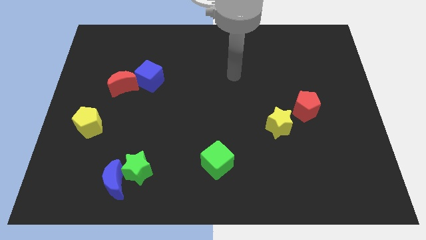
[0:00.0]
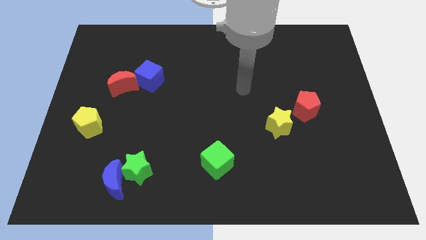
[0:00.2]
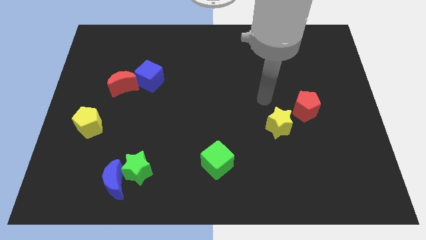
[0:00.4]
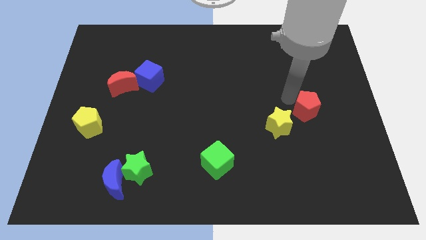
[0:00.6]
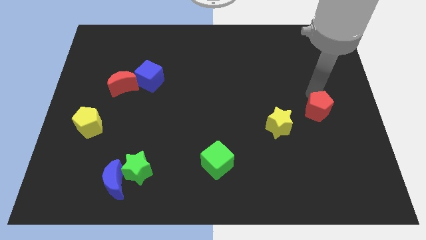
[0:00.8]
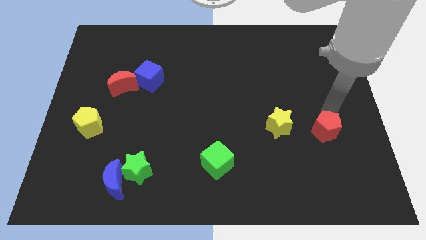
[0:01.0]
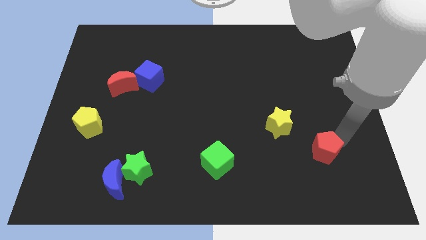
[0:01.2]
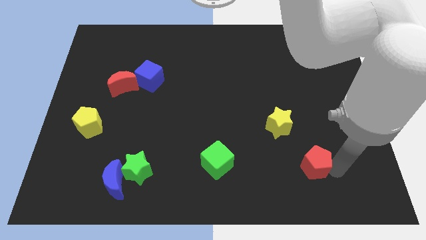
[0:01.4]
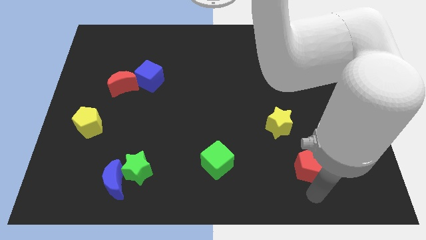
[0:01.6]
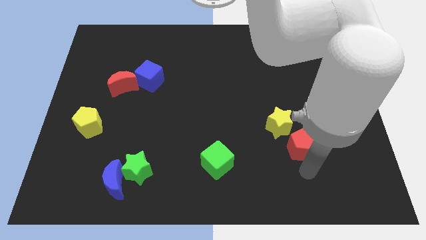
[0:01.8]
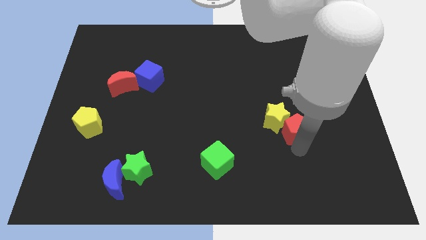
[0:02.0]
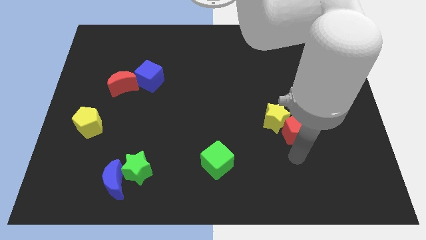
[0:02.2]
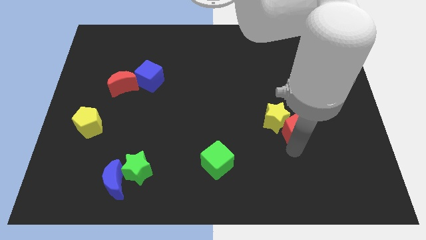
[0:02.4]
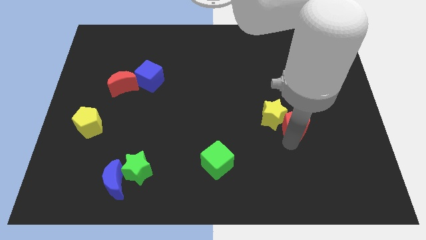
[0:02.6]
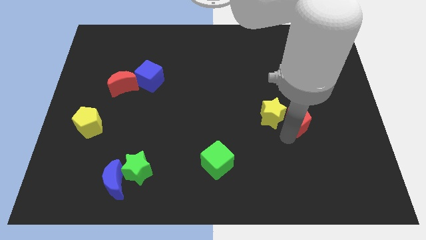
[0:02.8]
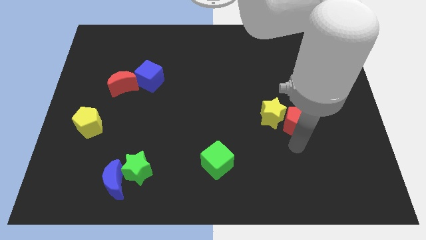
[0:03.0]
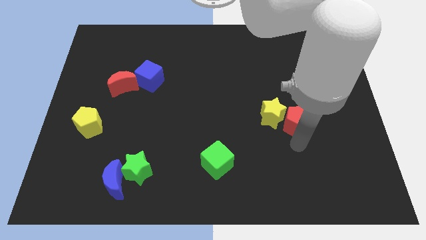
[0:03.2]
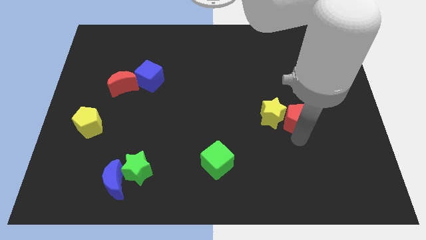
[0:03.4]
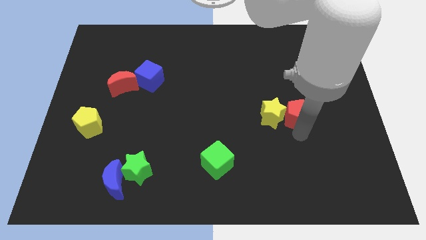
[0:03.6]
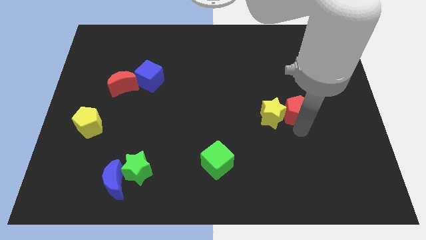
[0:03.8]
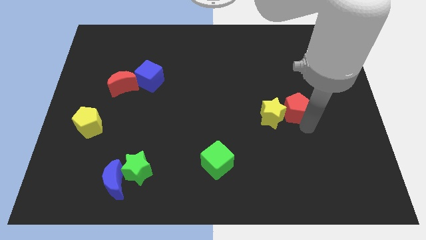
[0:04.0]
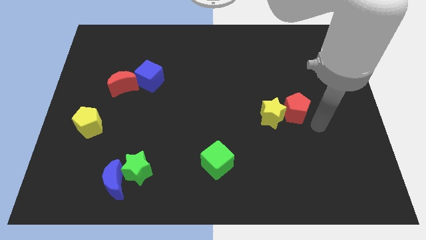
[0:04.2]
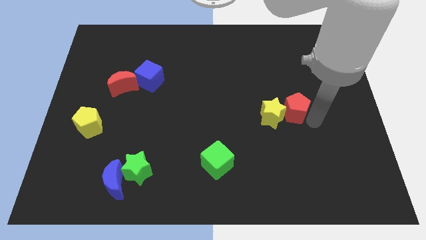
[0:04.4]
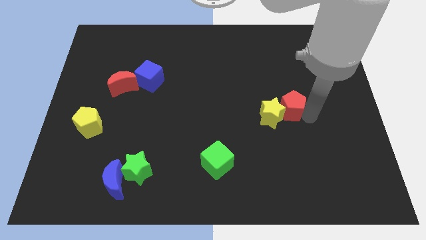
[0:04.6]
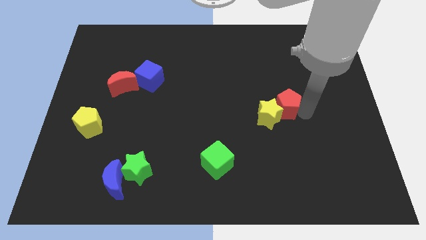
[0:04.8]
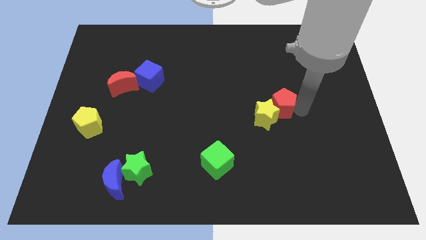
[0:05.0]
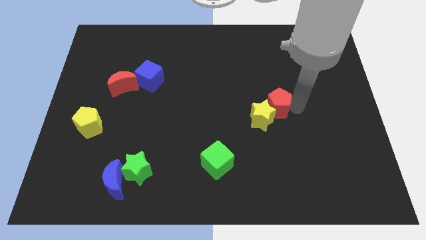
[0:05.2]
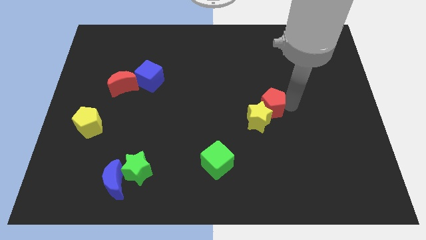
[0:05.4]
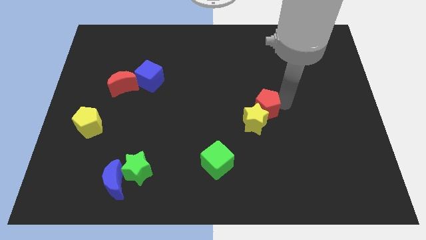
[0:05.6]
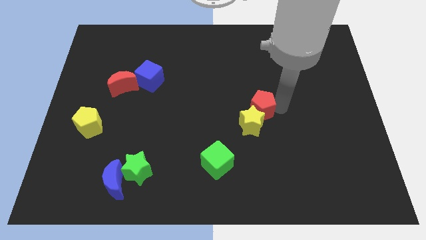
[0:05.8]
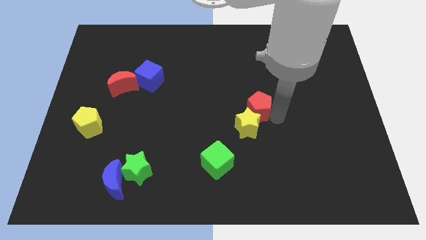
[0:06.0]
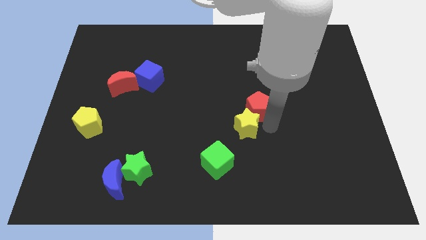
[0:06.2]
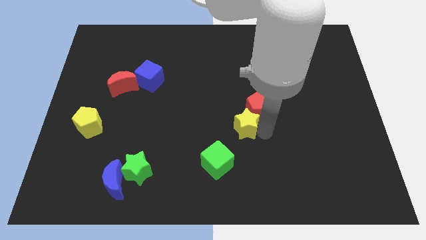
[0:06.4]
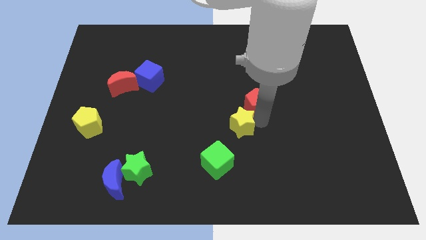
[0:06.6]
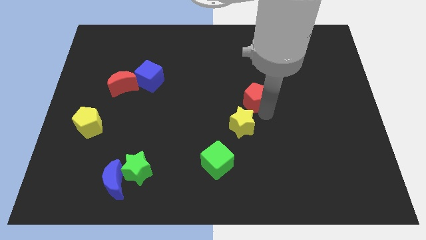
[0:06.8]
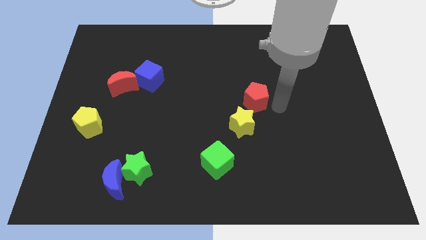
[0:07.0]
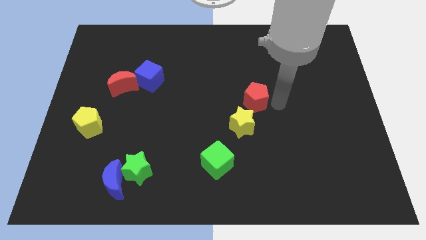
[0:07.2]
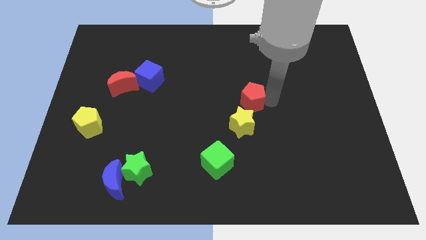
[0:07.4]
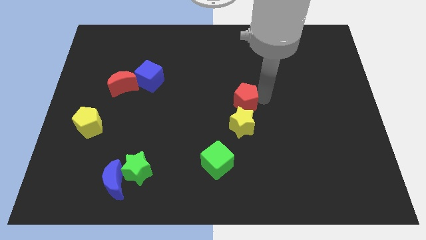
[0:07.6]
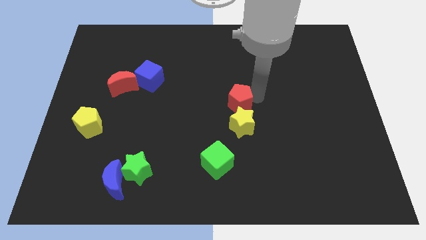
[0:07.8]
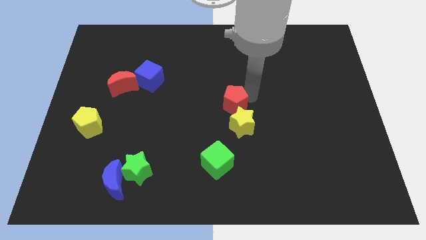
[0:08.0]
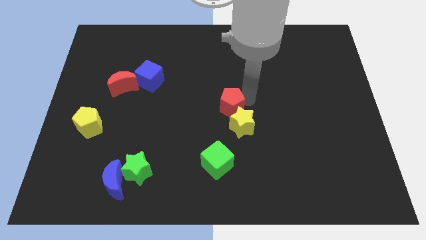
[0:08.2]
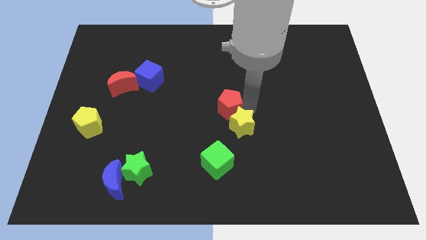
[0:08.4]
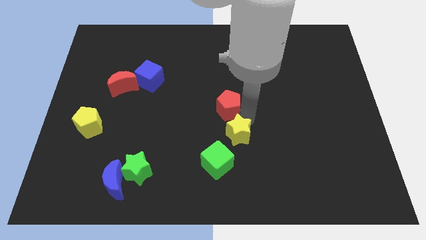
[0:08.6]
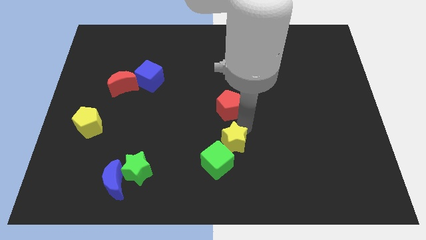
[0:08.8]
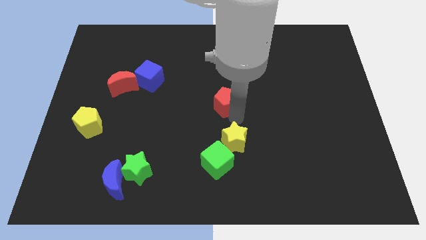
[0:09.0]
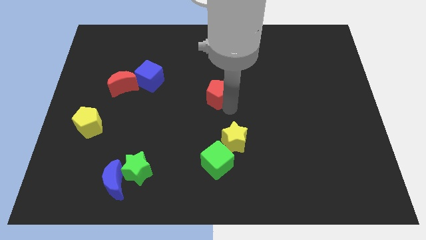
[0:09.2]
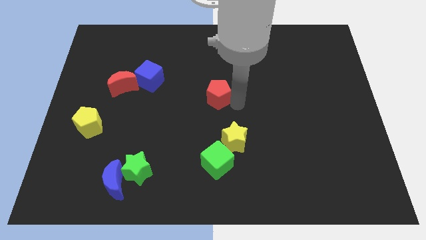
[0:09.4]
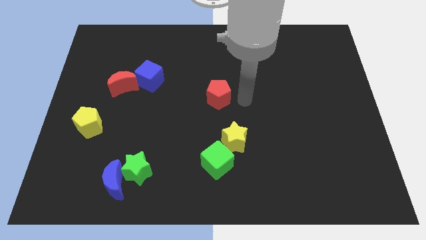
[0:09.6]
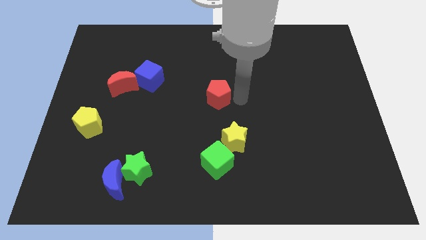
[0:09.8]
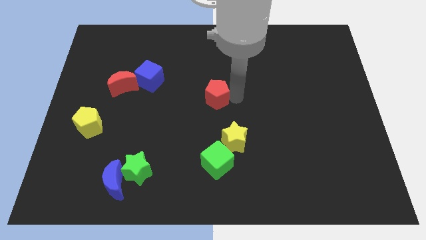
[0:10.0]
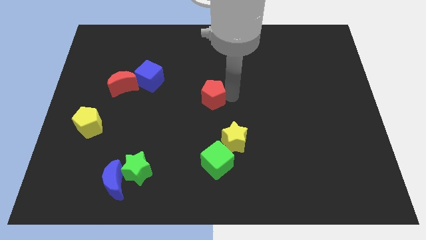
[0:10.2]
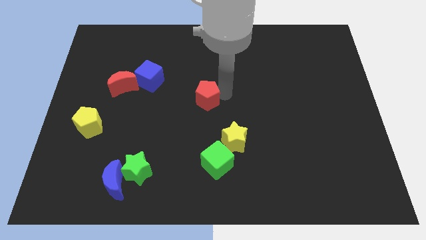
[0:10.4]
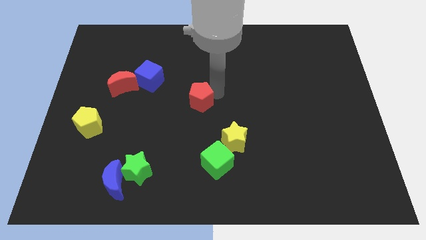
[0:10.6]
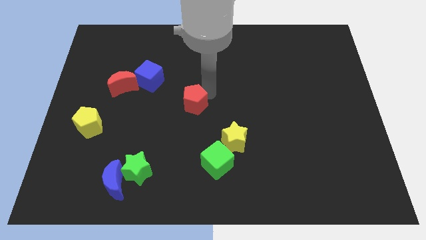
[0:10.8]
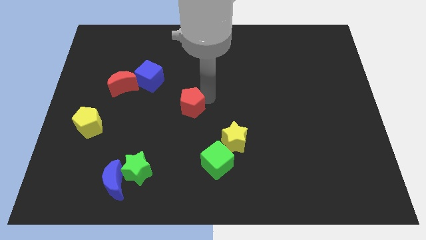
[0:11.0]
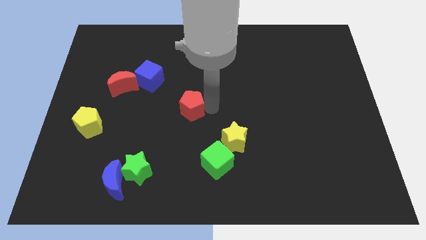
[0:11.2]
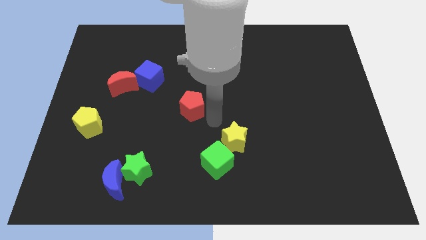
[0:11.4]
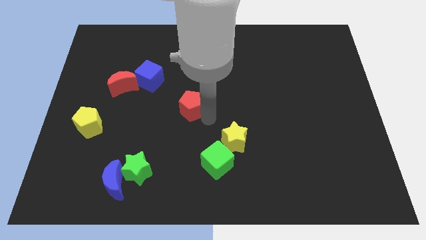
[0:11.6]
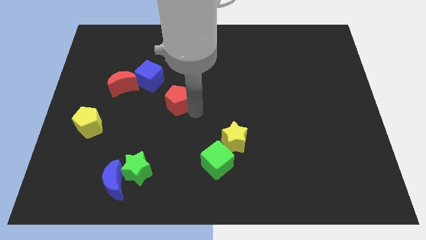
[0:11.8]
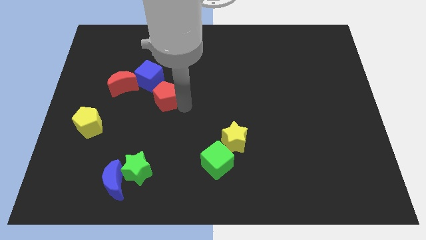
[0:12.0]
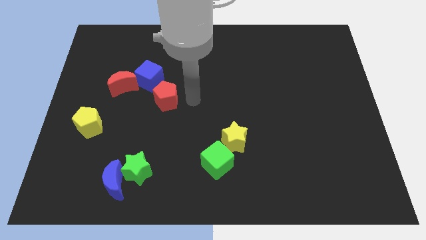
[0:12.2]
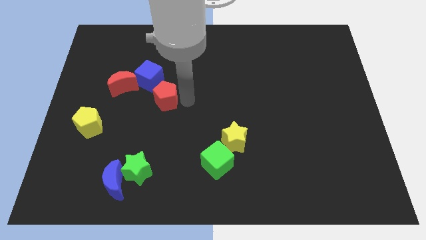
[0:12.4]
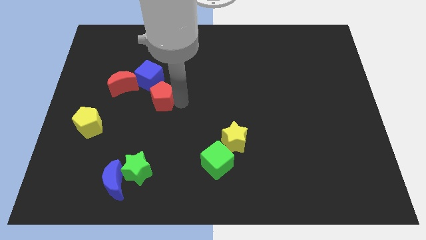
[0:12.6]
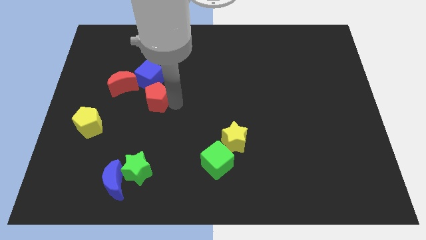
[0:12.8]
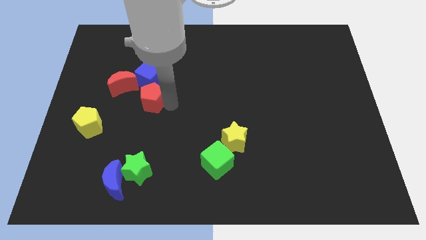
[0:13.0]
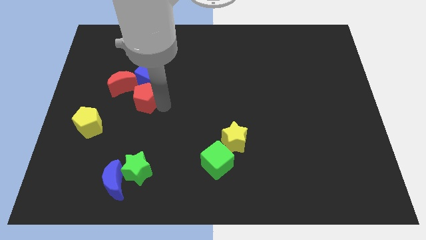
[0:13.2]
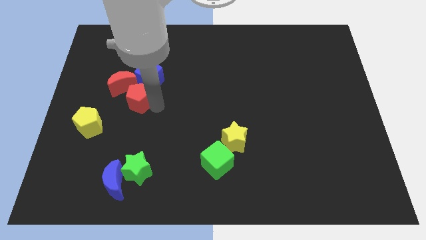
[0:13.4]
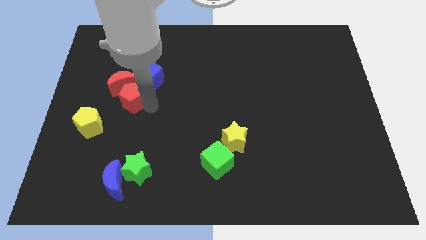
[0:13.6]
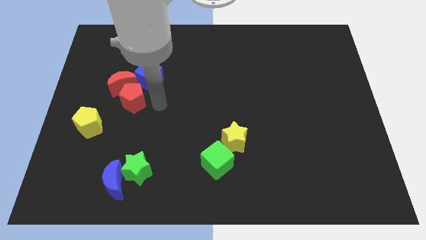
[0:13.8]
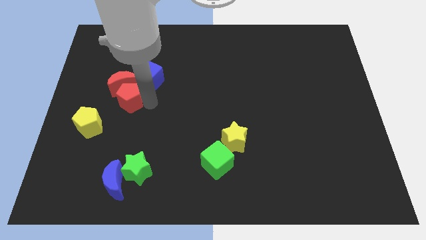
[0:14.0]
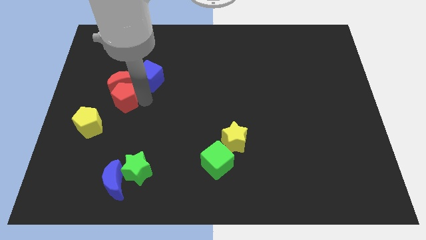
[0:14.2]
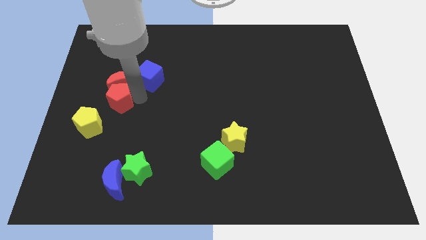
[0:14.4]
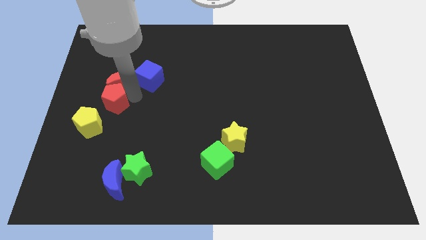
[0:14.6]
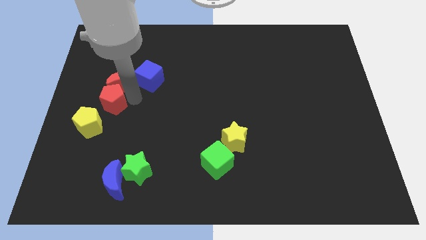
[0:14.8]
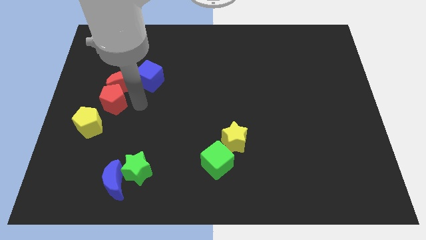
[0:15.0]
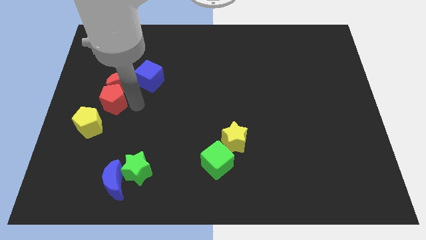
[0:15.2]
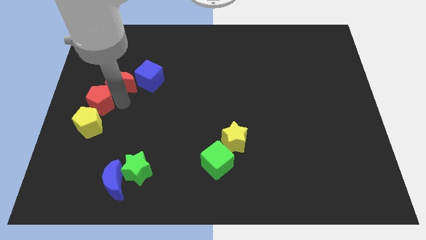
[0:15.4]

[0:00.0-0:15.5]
slide the red pentagon to the left side
